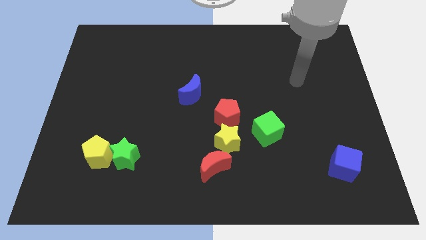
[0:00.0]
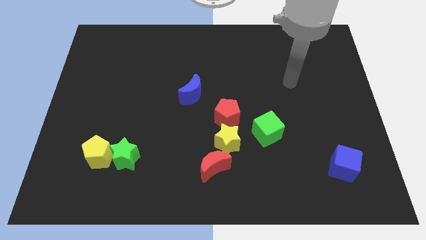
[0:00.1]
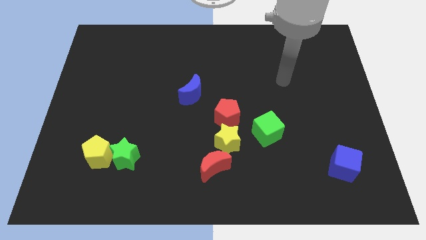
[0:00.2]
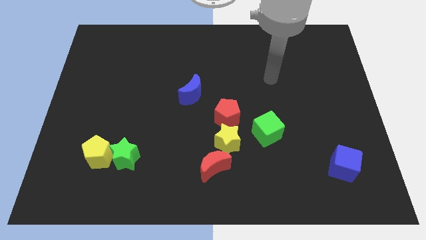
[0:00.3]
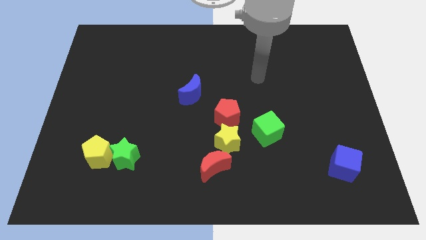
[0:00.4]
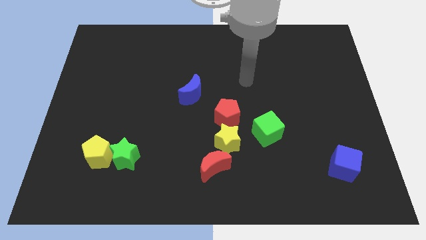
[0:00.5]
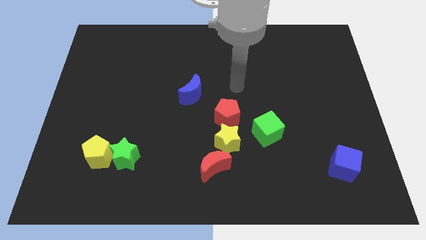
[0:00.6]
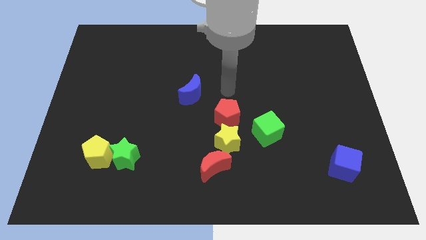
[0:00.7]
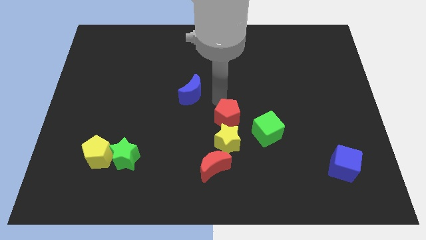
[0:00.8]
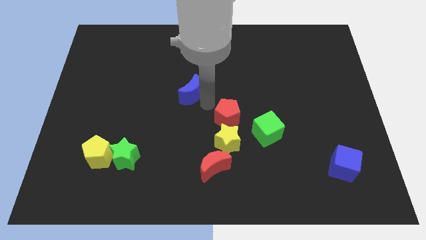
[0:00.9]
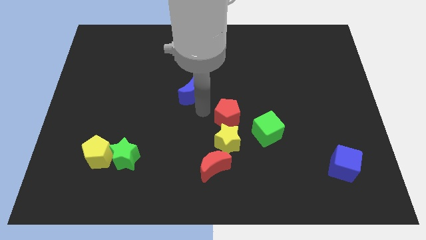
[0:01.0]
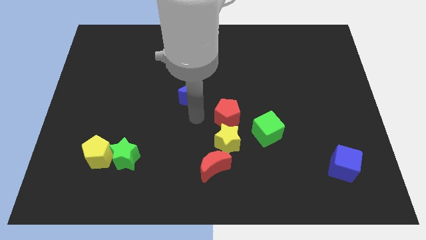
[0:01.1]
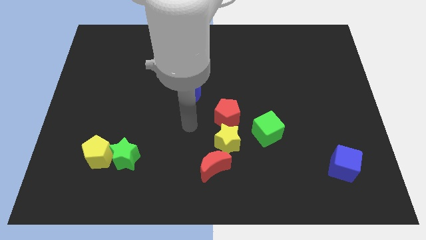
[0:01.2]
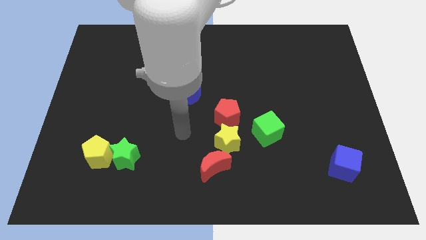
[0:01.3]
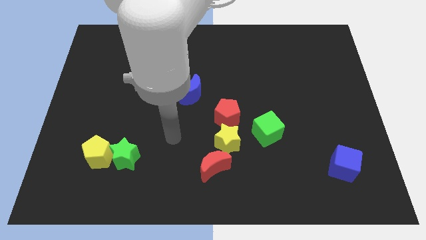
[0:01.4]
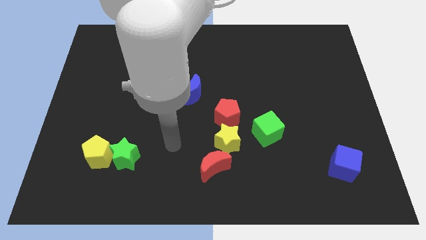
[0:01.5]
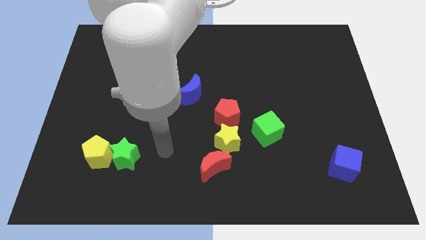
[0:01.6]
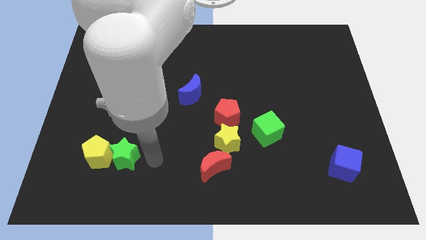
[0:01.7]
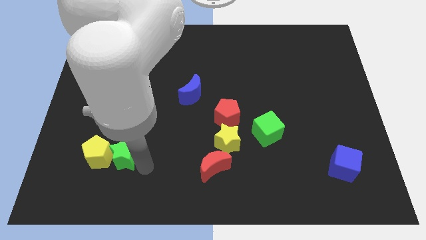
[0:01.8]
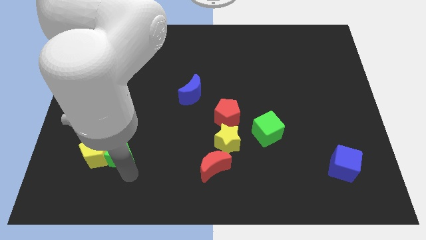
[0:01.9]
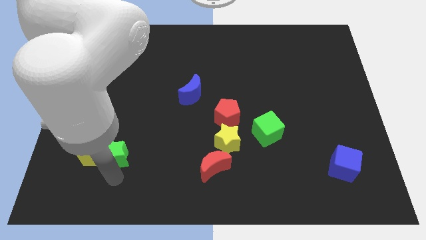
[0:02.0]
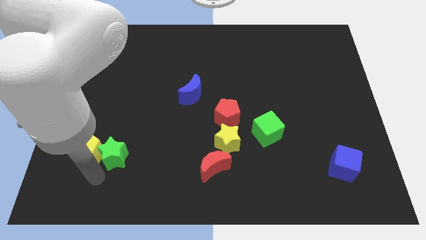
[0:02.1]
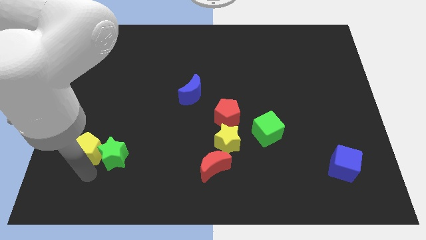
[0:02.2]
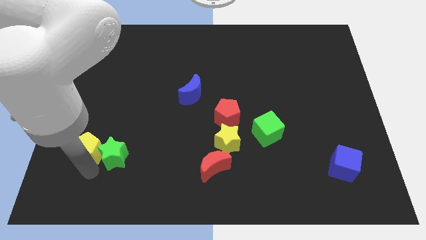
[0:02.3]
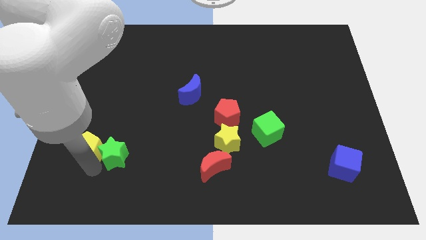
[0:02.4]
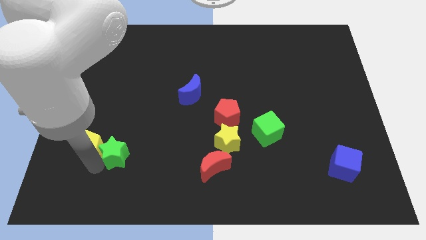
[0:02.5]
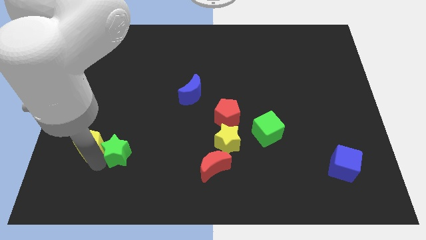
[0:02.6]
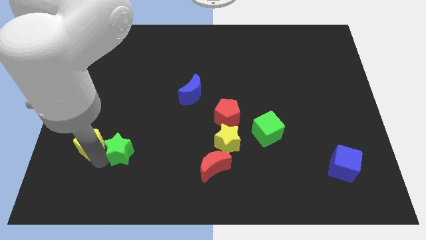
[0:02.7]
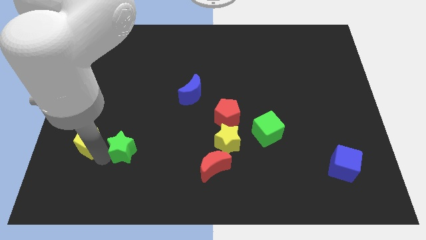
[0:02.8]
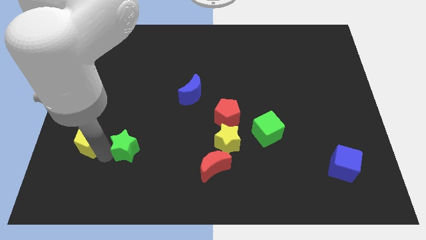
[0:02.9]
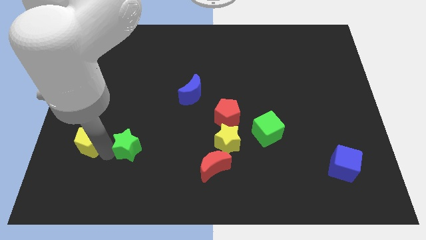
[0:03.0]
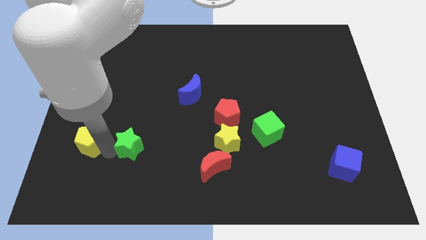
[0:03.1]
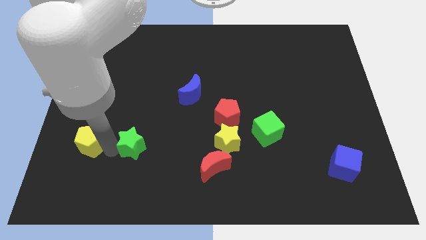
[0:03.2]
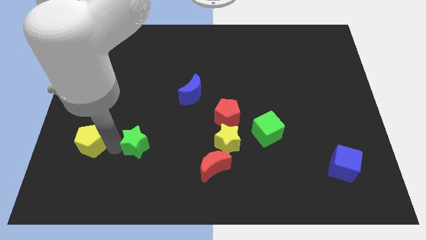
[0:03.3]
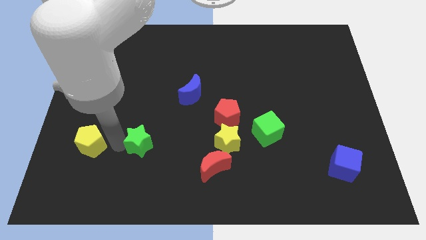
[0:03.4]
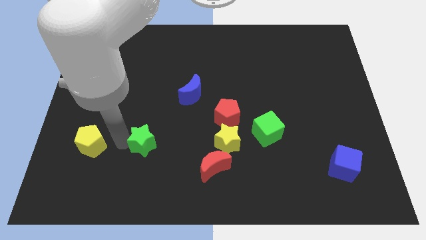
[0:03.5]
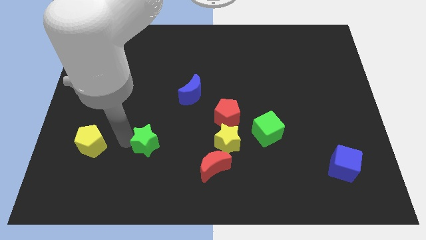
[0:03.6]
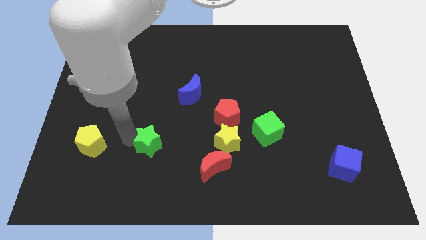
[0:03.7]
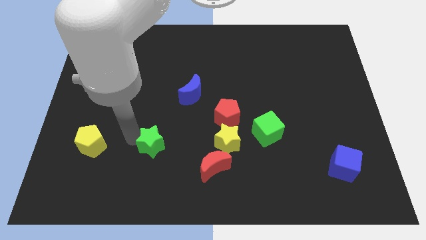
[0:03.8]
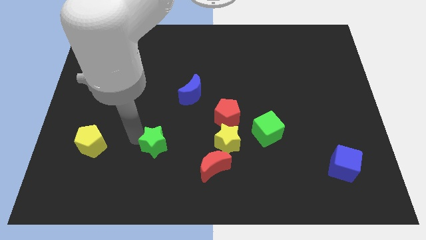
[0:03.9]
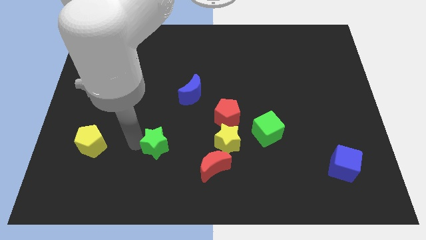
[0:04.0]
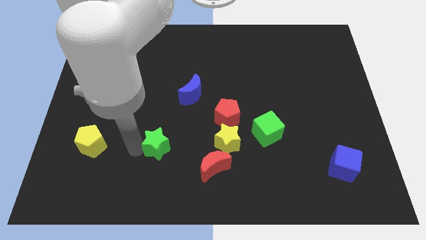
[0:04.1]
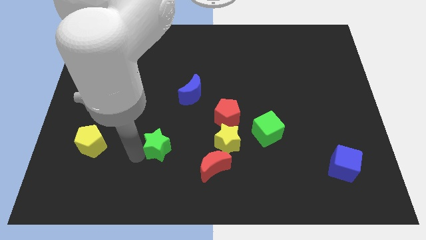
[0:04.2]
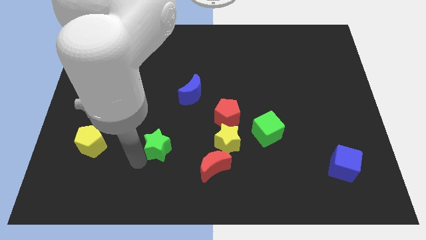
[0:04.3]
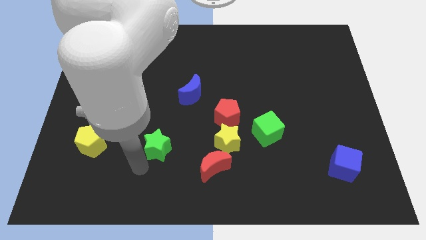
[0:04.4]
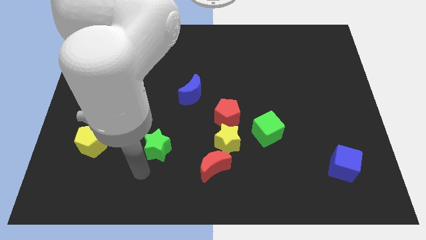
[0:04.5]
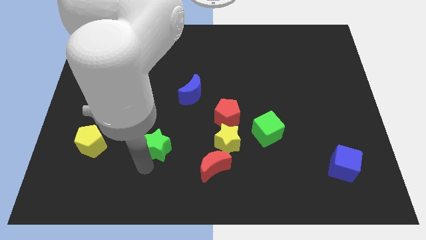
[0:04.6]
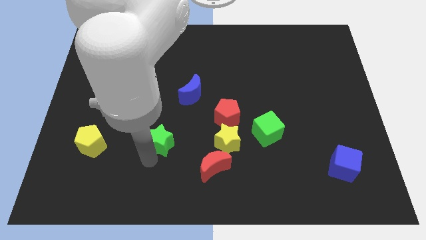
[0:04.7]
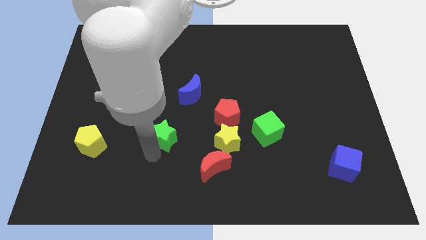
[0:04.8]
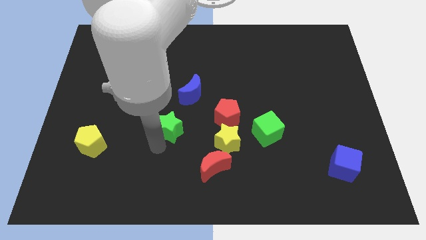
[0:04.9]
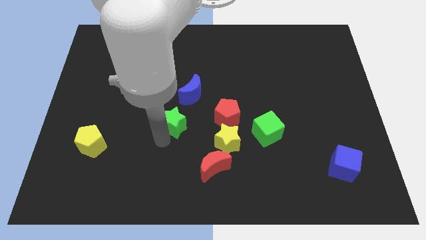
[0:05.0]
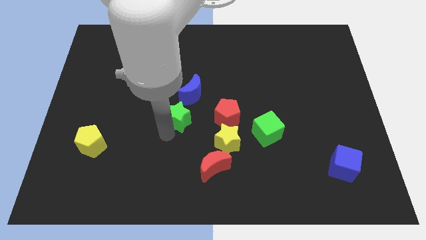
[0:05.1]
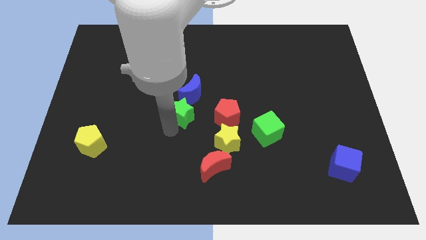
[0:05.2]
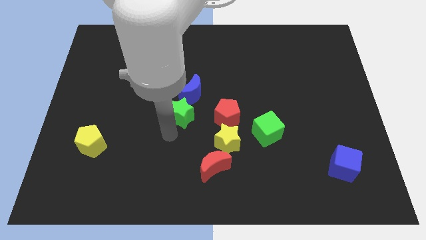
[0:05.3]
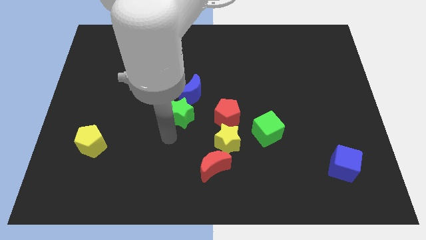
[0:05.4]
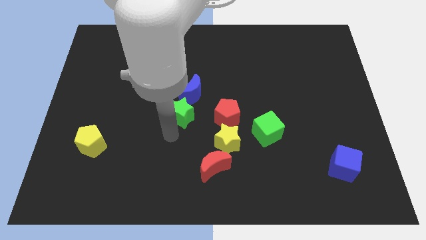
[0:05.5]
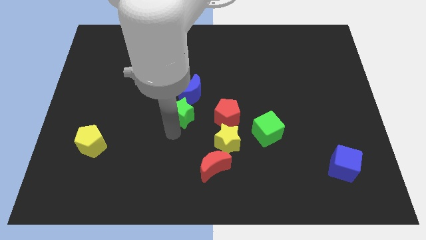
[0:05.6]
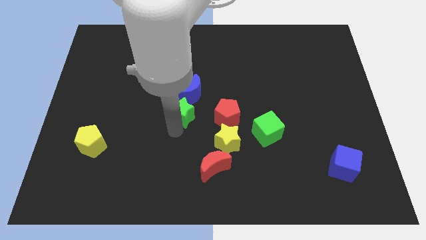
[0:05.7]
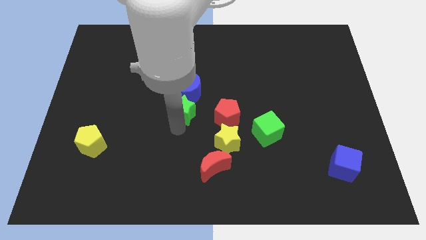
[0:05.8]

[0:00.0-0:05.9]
move the green star towards the blue moon

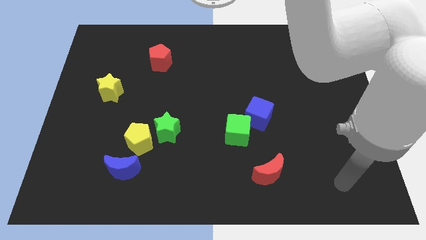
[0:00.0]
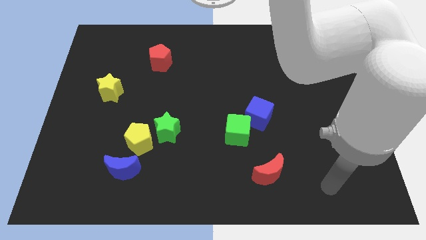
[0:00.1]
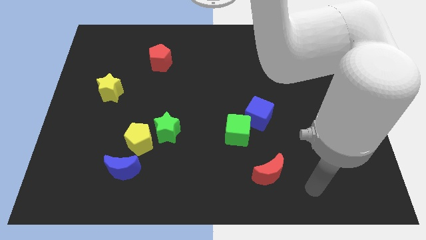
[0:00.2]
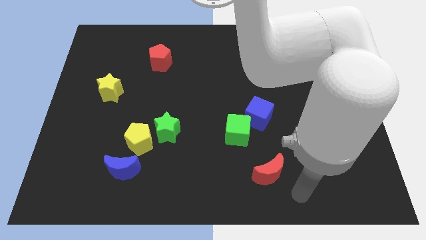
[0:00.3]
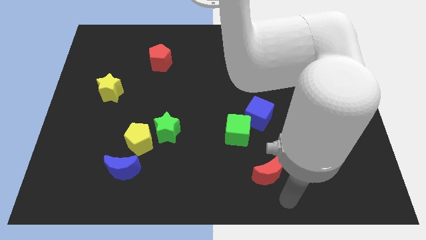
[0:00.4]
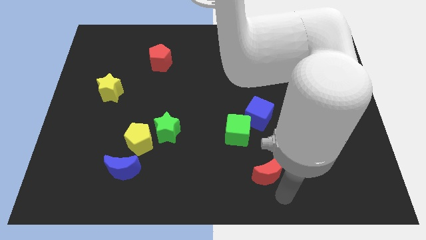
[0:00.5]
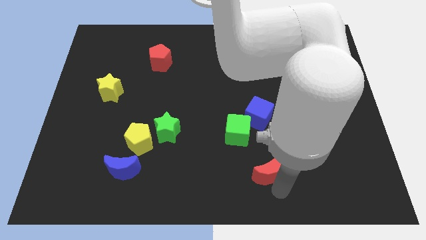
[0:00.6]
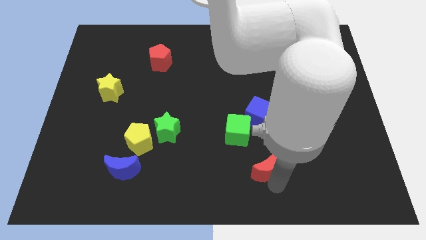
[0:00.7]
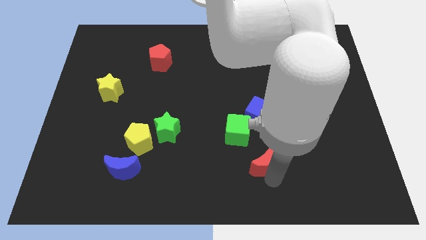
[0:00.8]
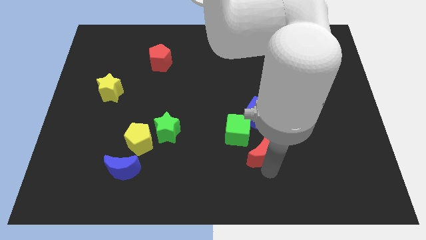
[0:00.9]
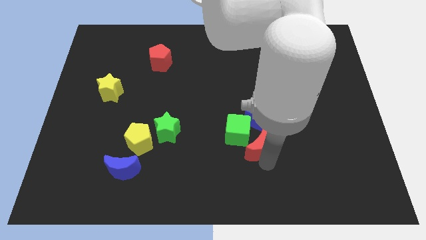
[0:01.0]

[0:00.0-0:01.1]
move the red moon towards the green cube

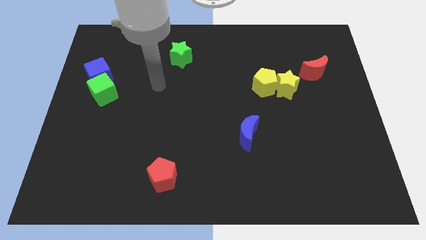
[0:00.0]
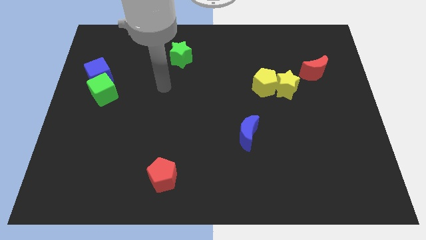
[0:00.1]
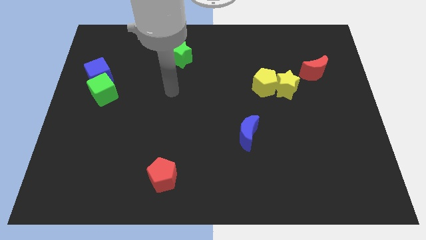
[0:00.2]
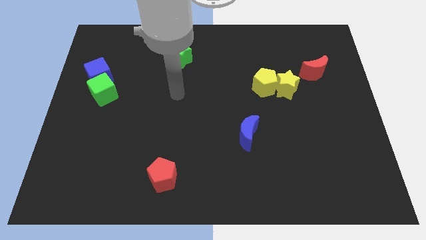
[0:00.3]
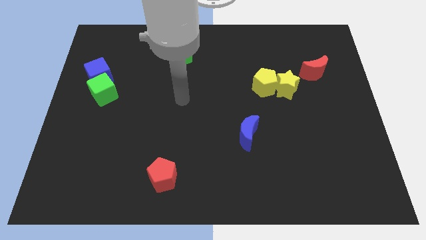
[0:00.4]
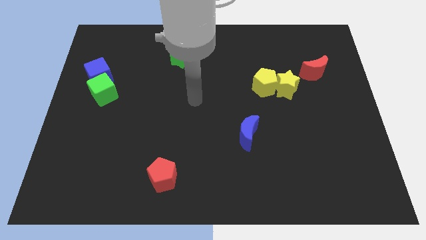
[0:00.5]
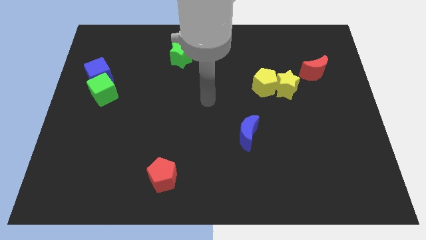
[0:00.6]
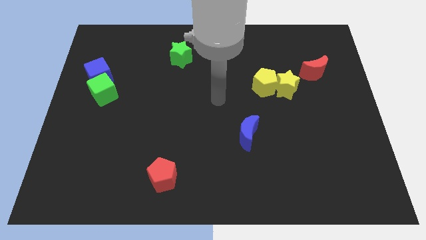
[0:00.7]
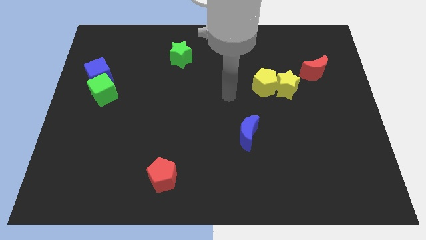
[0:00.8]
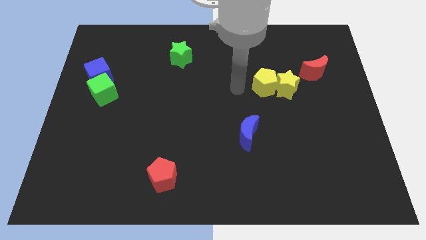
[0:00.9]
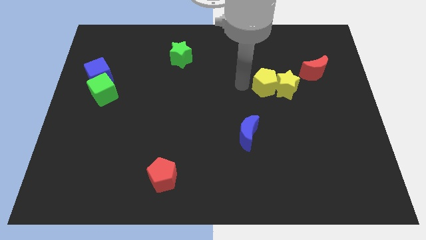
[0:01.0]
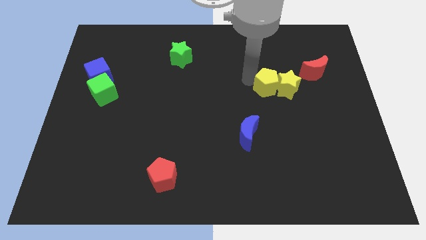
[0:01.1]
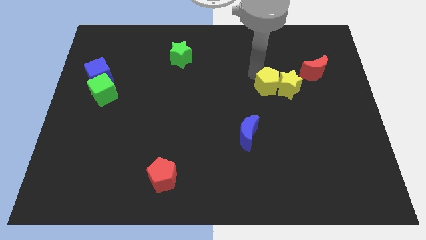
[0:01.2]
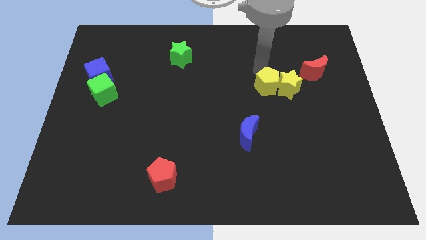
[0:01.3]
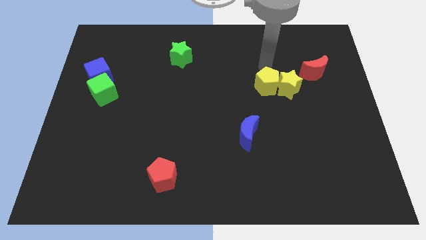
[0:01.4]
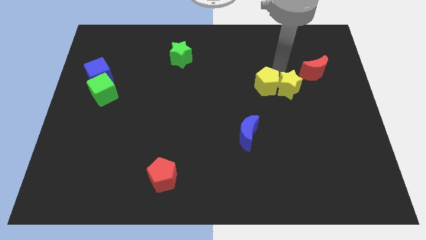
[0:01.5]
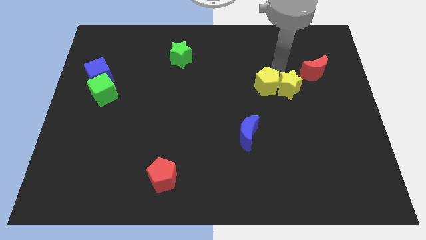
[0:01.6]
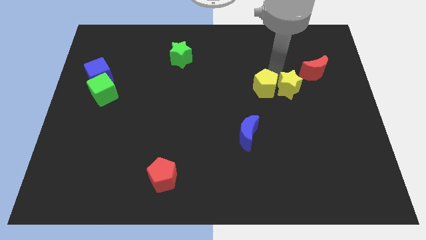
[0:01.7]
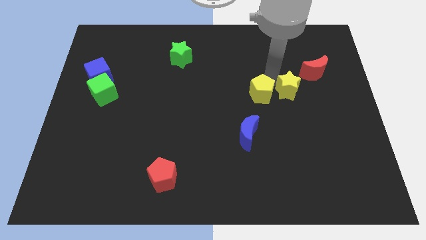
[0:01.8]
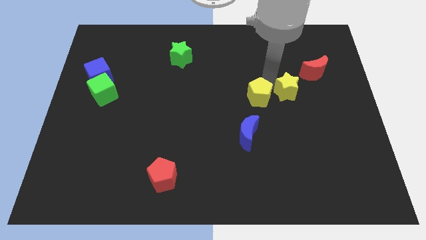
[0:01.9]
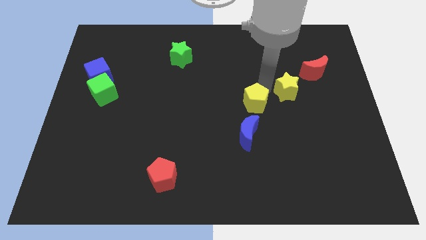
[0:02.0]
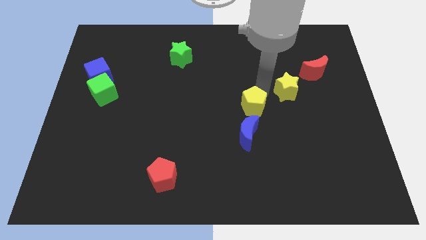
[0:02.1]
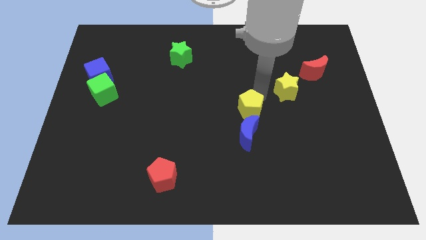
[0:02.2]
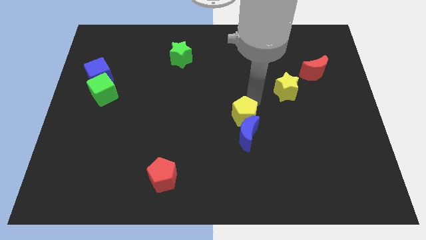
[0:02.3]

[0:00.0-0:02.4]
slide the yellow pentagon close to the blue moon
